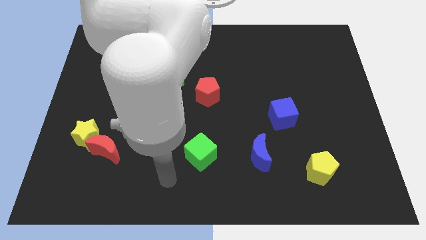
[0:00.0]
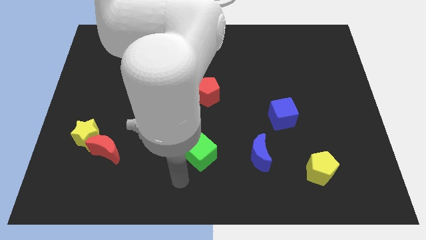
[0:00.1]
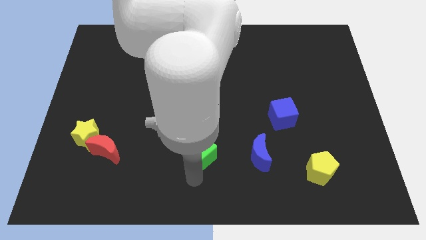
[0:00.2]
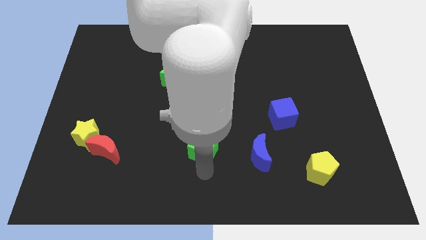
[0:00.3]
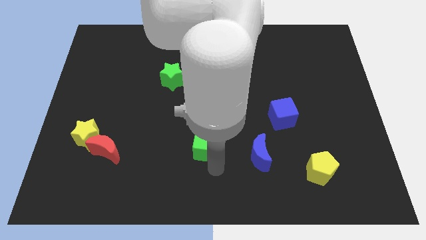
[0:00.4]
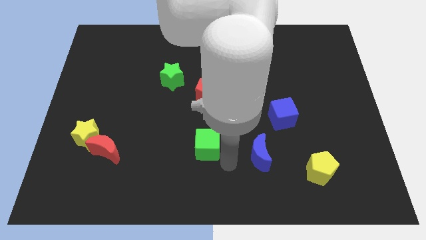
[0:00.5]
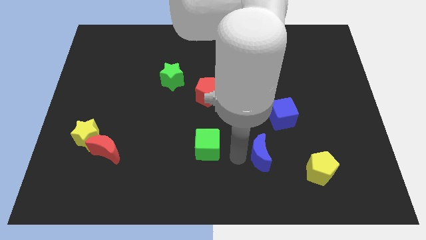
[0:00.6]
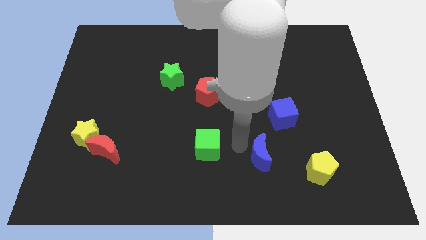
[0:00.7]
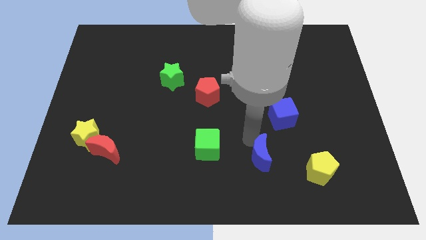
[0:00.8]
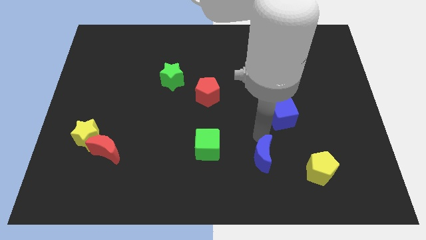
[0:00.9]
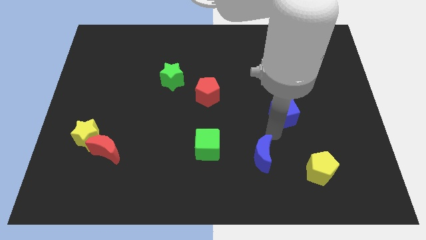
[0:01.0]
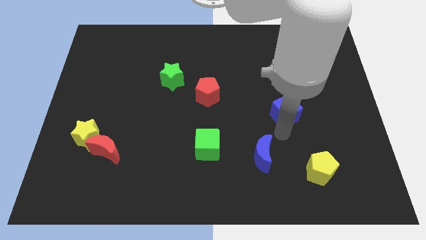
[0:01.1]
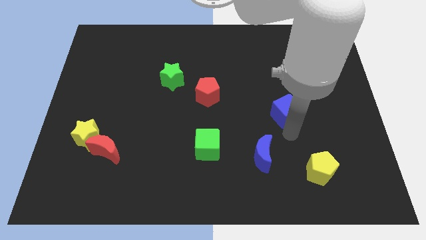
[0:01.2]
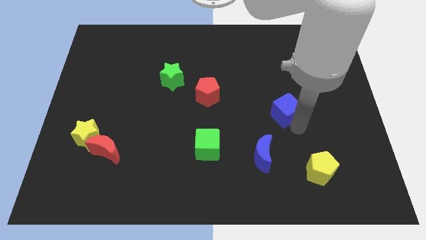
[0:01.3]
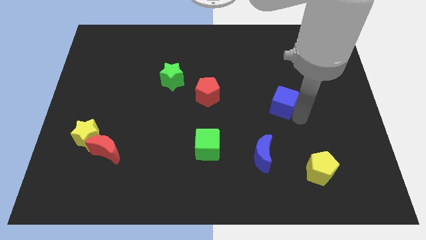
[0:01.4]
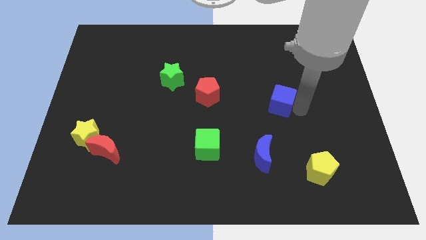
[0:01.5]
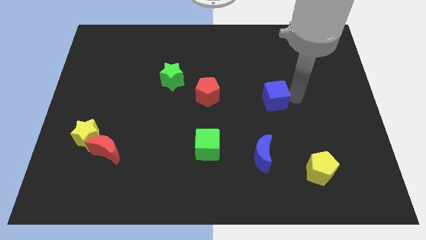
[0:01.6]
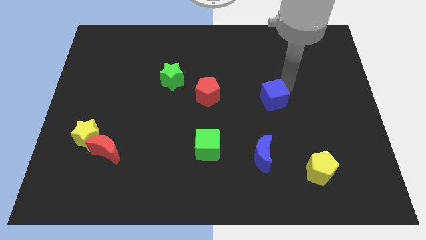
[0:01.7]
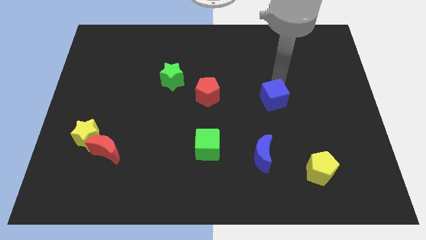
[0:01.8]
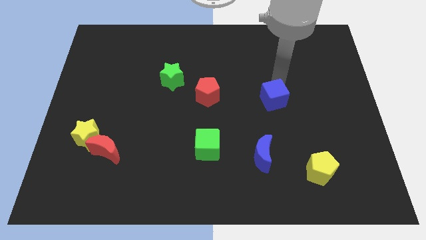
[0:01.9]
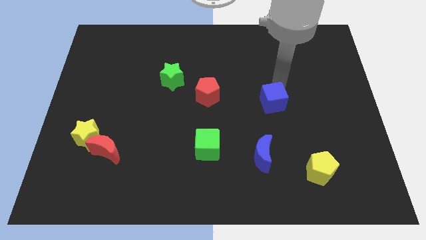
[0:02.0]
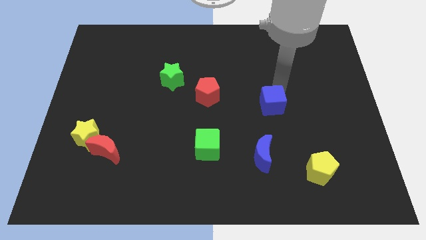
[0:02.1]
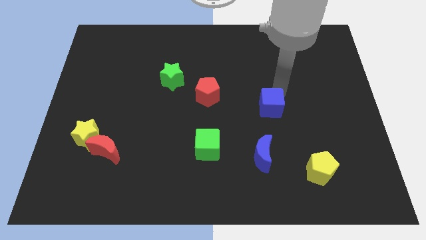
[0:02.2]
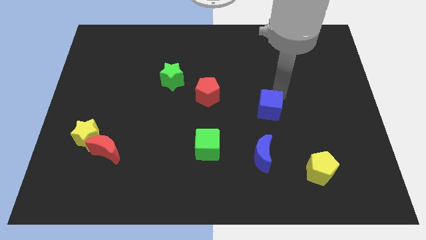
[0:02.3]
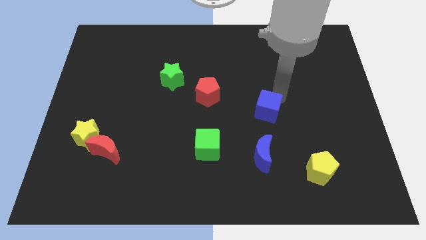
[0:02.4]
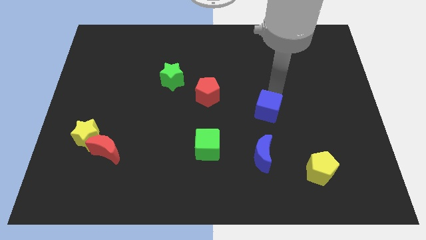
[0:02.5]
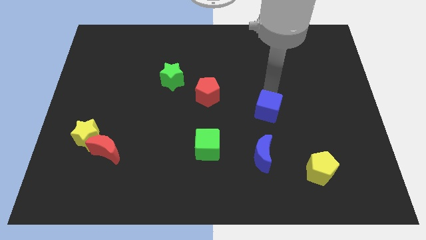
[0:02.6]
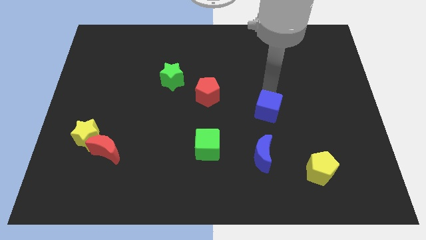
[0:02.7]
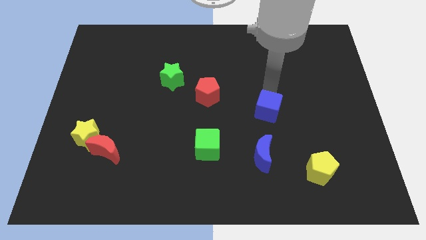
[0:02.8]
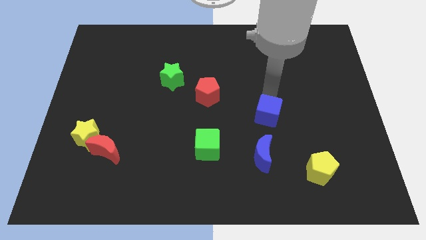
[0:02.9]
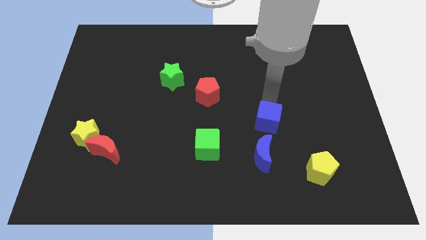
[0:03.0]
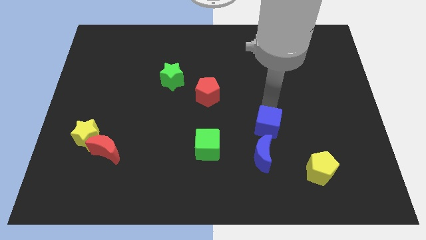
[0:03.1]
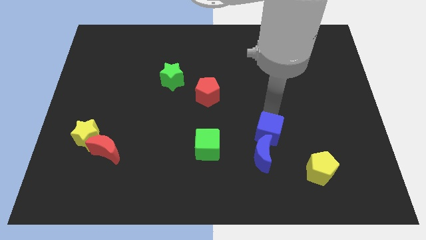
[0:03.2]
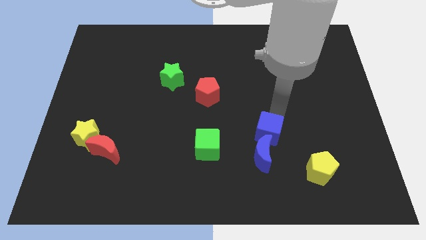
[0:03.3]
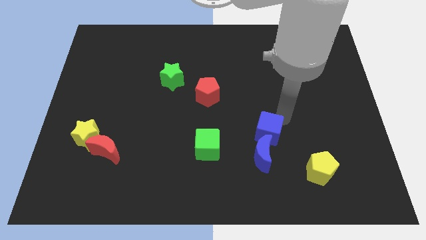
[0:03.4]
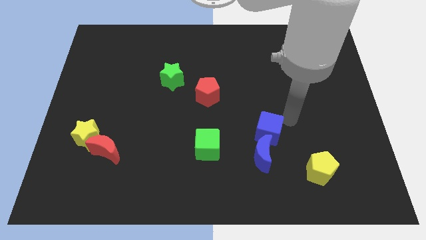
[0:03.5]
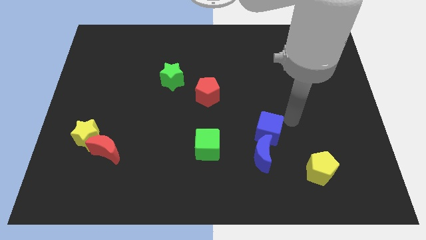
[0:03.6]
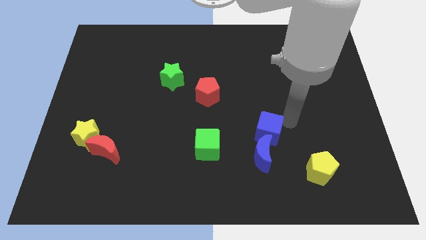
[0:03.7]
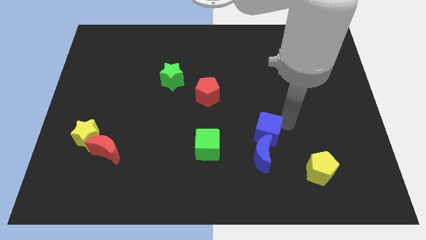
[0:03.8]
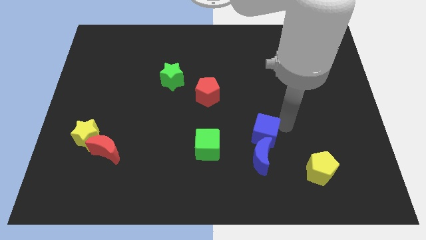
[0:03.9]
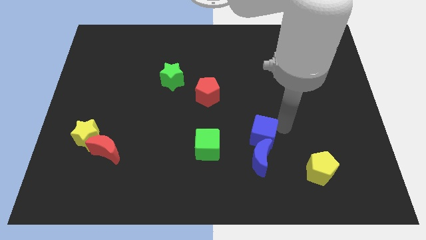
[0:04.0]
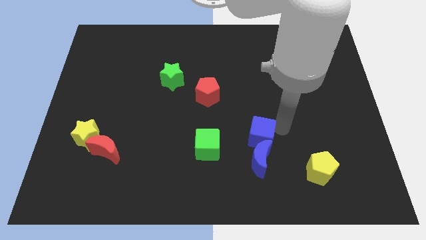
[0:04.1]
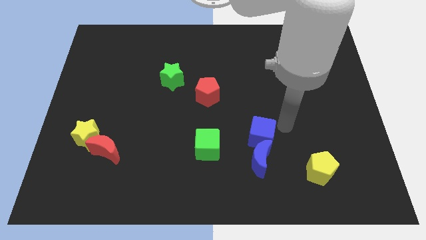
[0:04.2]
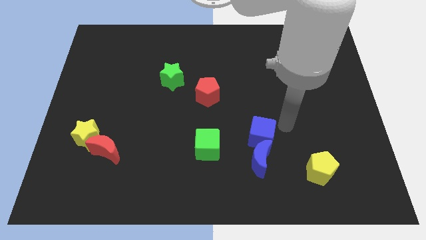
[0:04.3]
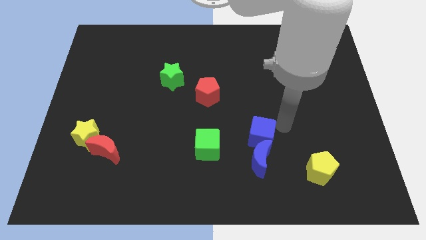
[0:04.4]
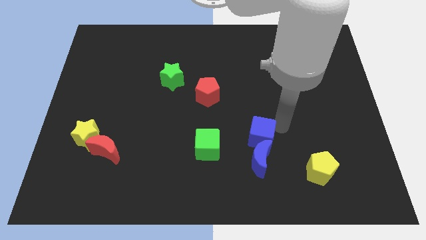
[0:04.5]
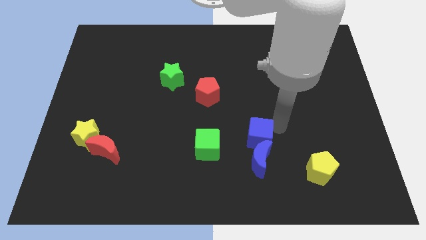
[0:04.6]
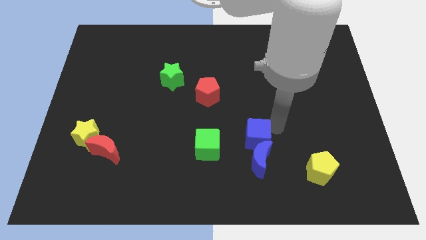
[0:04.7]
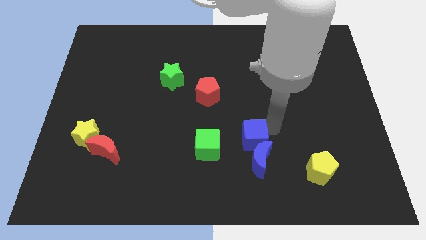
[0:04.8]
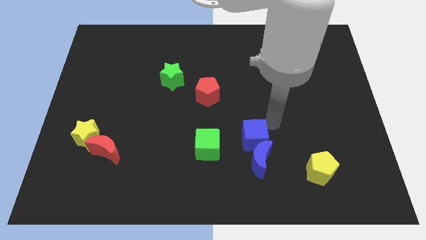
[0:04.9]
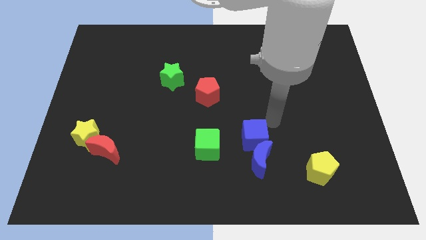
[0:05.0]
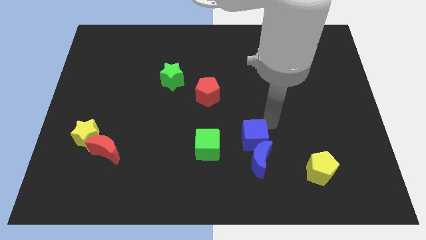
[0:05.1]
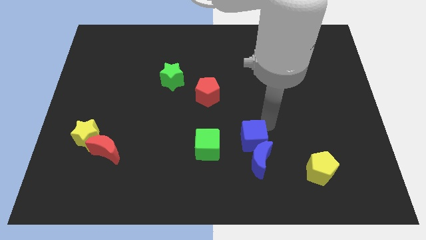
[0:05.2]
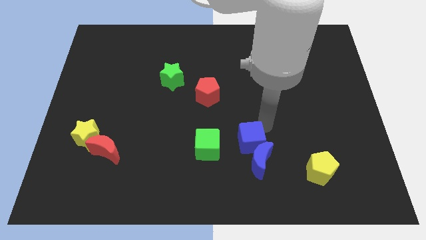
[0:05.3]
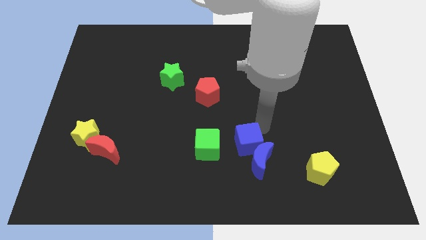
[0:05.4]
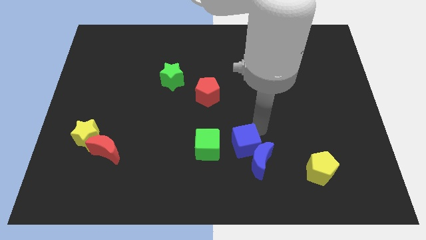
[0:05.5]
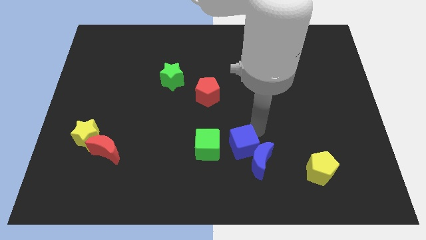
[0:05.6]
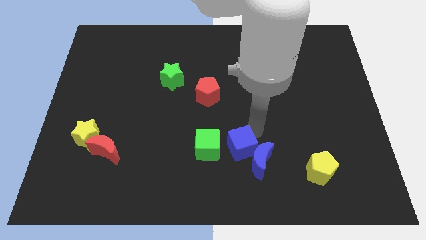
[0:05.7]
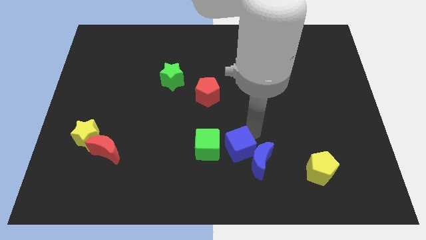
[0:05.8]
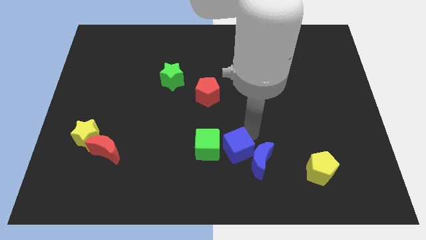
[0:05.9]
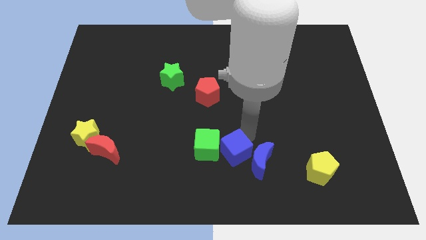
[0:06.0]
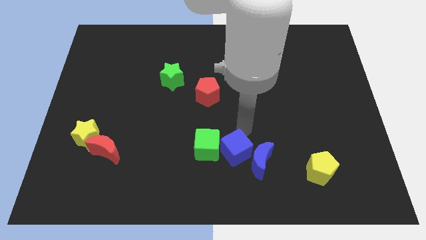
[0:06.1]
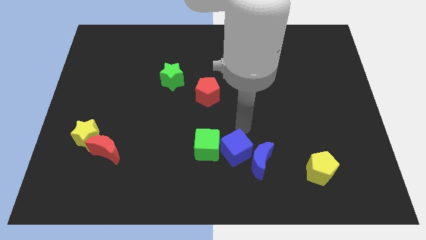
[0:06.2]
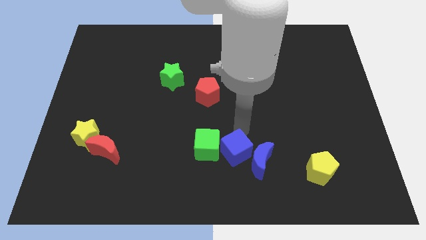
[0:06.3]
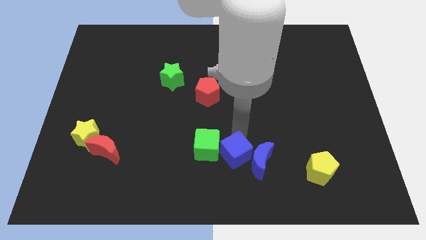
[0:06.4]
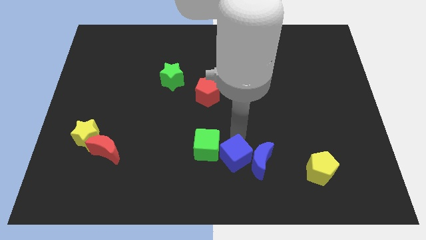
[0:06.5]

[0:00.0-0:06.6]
move the blue cube to the bottom side
